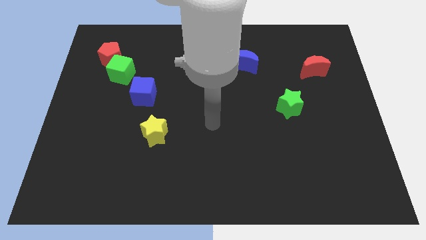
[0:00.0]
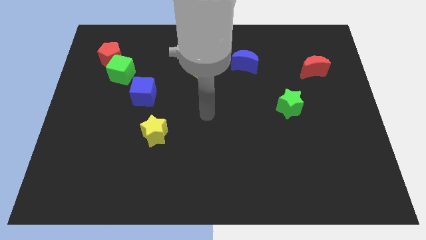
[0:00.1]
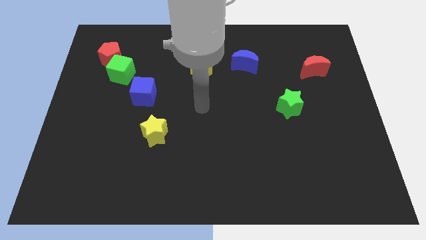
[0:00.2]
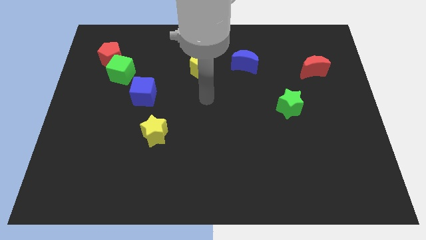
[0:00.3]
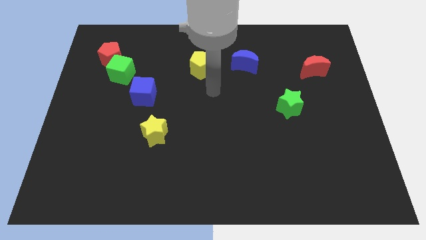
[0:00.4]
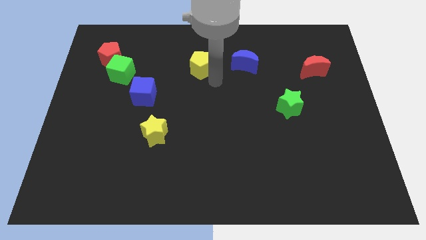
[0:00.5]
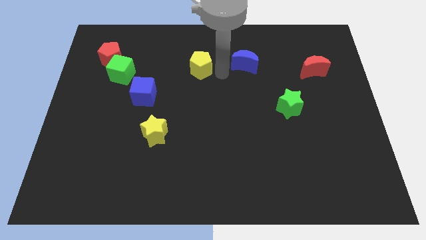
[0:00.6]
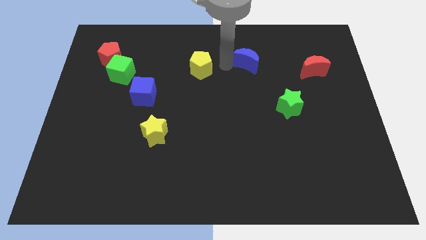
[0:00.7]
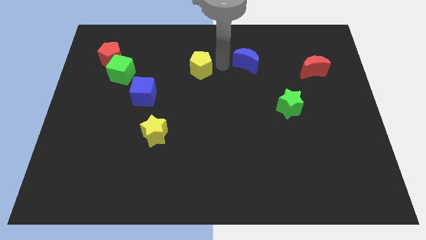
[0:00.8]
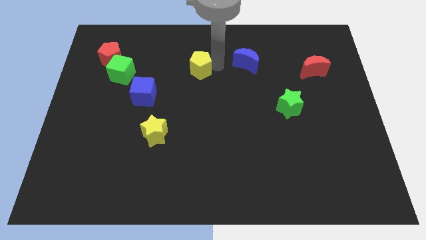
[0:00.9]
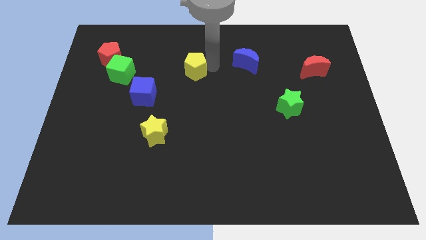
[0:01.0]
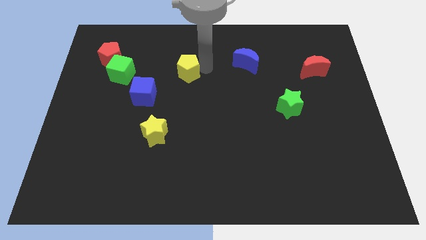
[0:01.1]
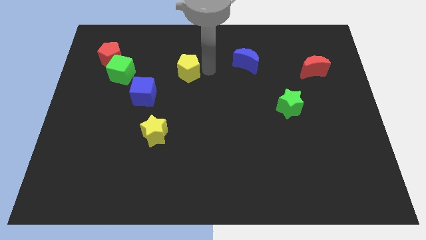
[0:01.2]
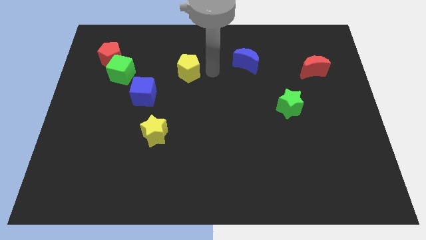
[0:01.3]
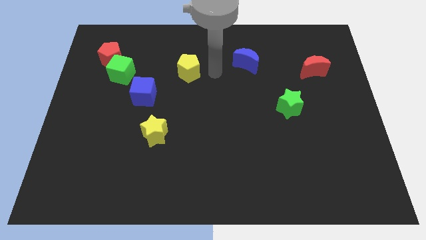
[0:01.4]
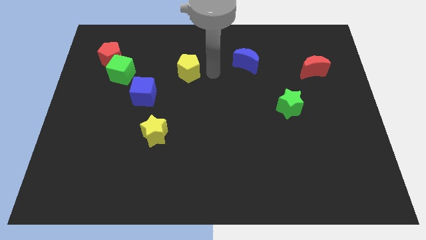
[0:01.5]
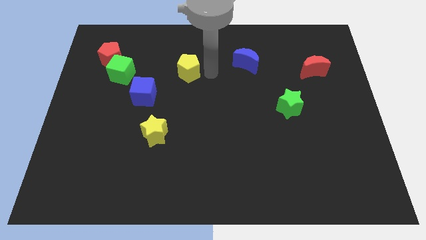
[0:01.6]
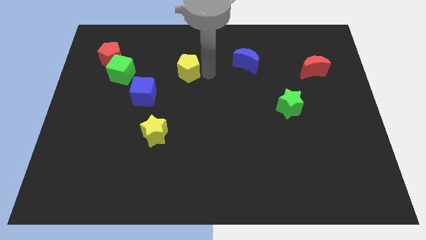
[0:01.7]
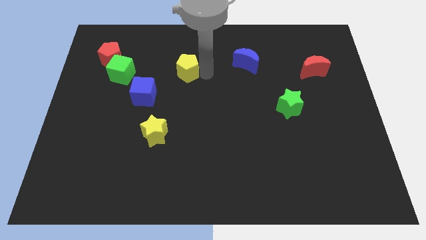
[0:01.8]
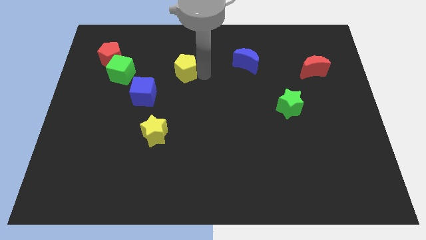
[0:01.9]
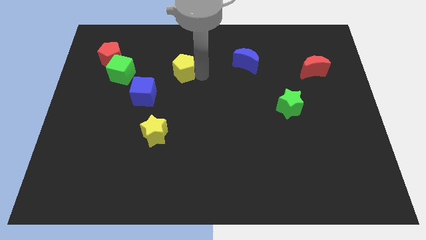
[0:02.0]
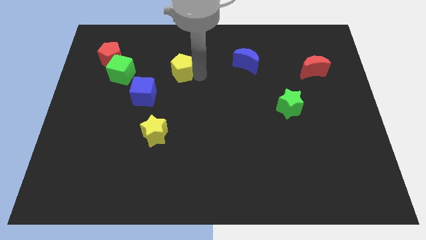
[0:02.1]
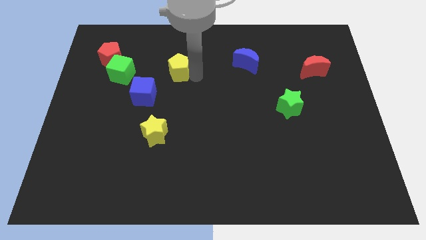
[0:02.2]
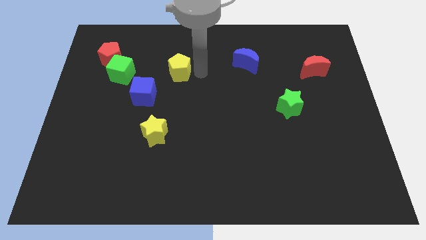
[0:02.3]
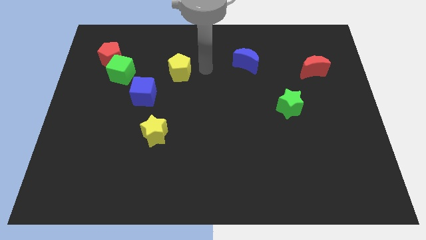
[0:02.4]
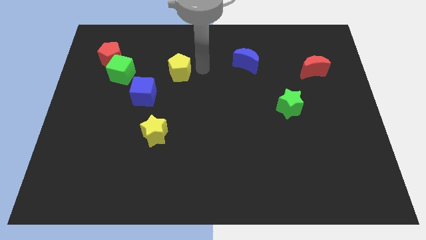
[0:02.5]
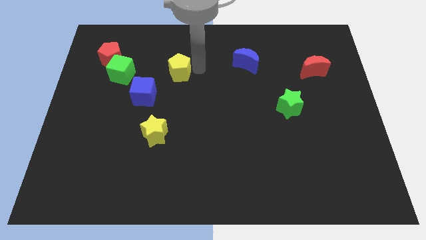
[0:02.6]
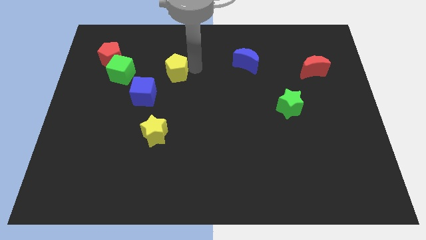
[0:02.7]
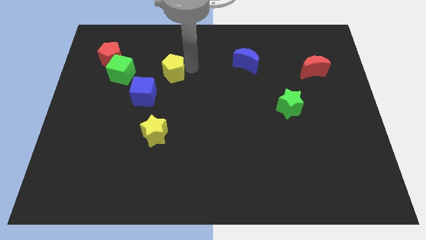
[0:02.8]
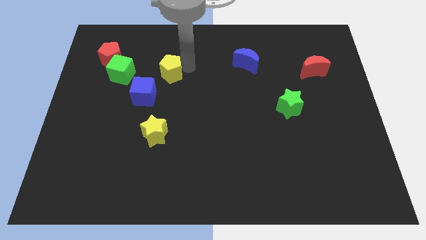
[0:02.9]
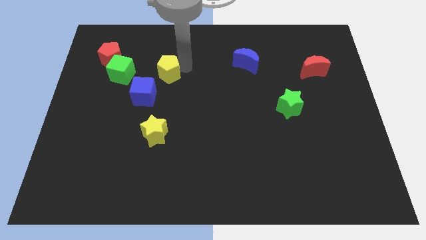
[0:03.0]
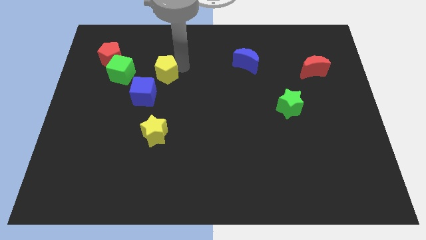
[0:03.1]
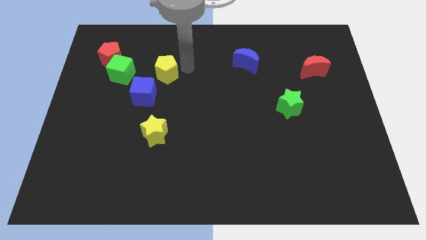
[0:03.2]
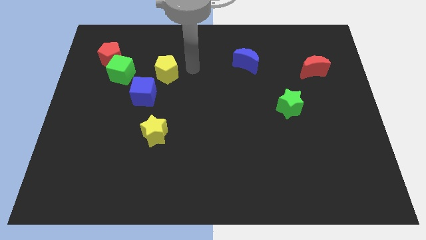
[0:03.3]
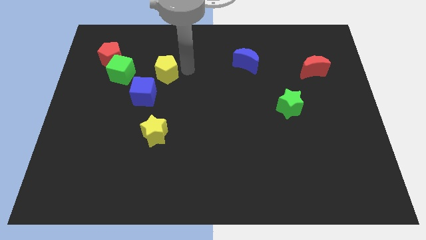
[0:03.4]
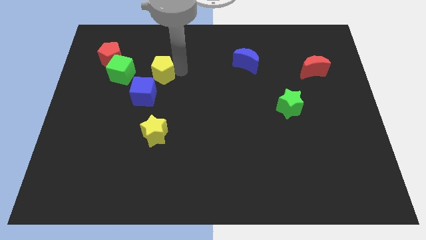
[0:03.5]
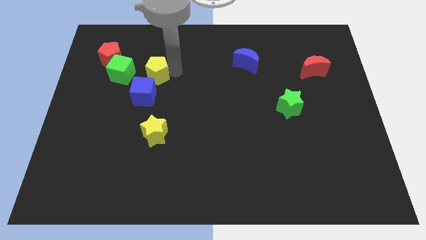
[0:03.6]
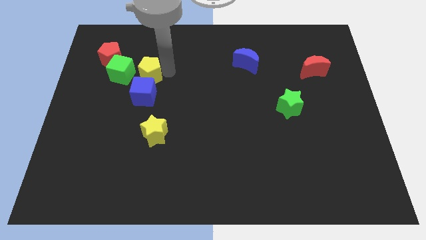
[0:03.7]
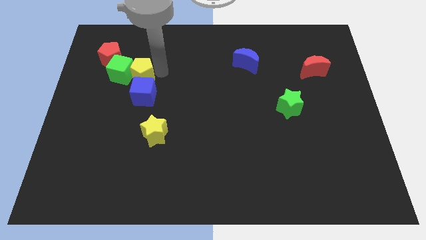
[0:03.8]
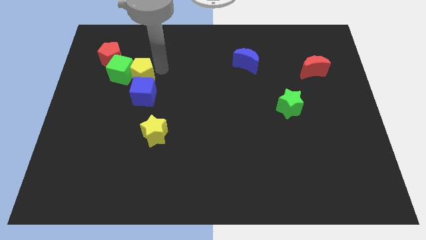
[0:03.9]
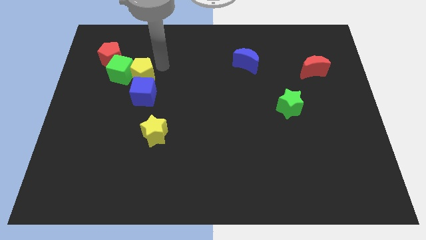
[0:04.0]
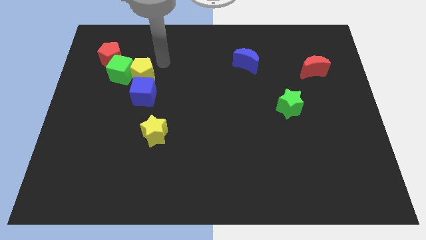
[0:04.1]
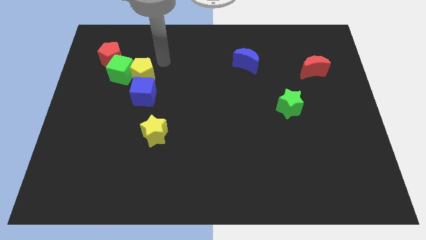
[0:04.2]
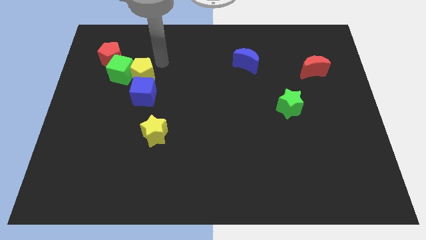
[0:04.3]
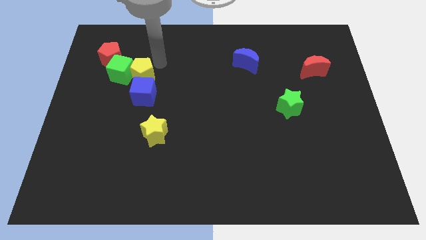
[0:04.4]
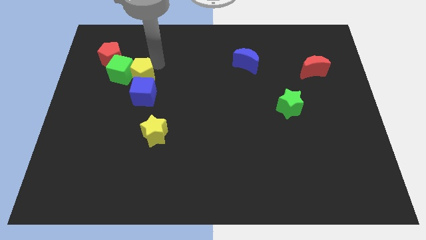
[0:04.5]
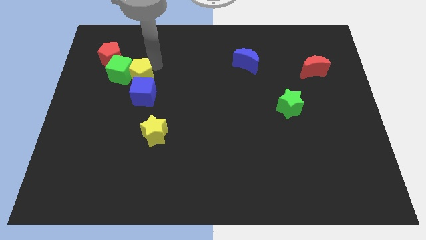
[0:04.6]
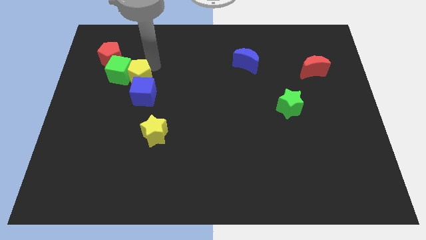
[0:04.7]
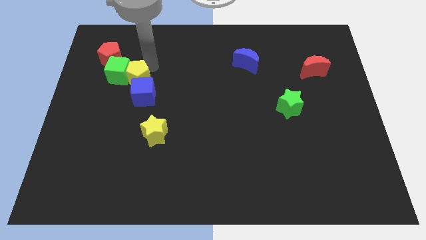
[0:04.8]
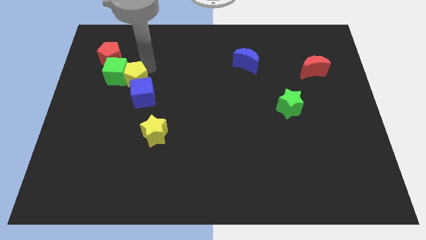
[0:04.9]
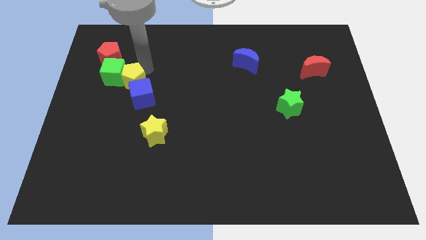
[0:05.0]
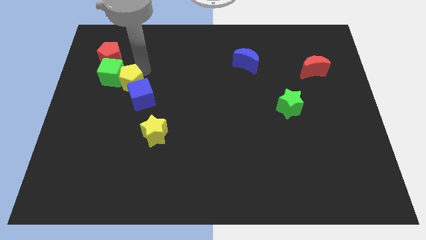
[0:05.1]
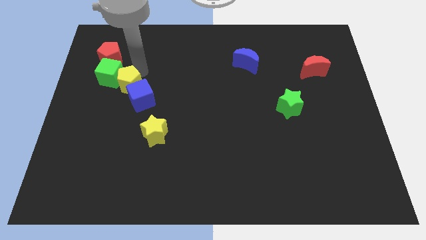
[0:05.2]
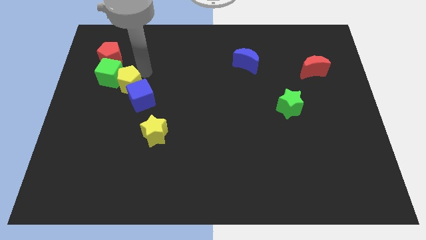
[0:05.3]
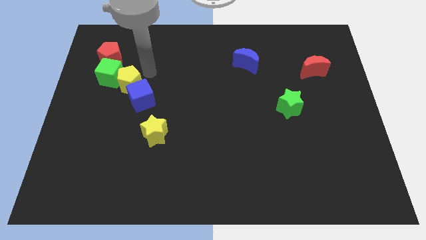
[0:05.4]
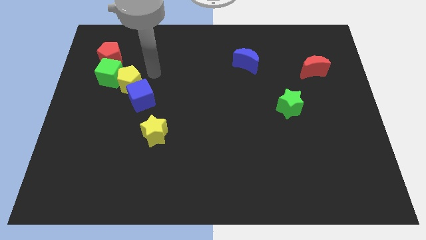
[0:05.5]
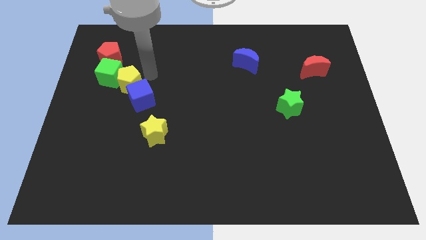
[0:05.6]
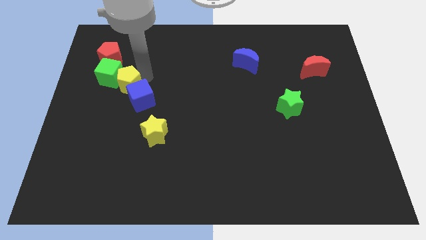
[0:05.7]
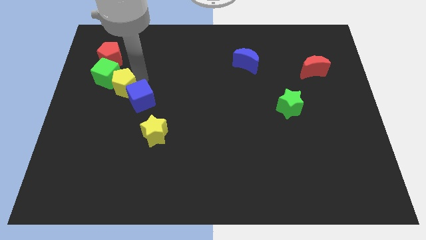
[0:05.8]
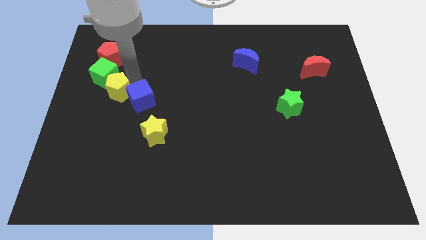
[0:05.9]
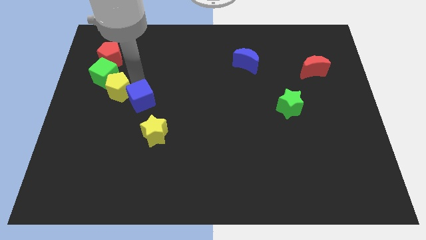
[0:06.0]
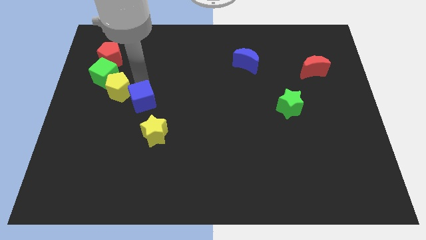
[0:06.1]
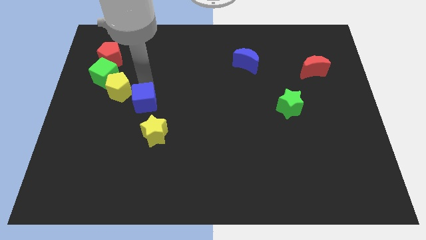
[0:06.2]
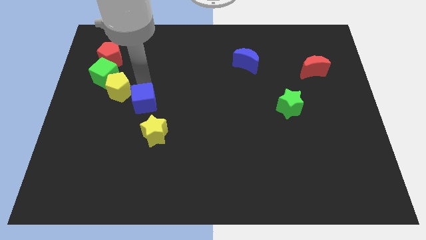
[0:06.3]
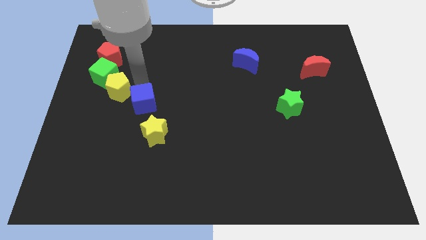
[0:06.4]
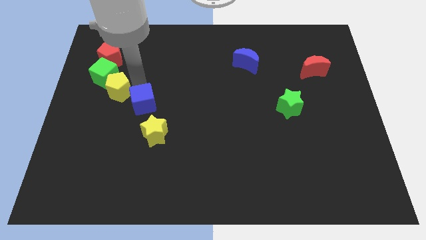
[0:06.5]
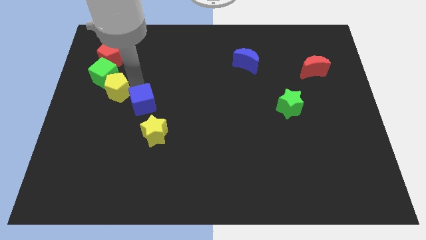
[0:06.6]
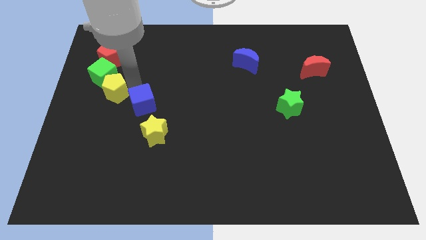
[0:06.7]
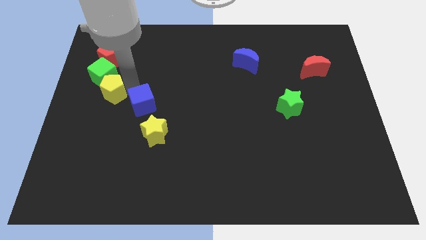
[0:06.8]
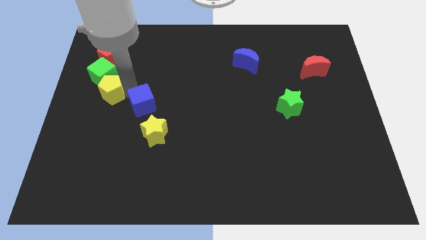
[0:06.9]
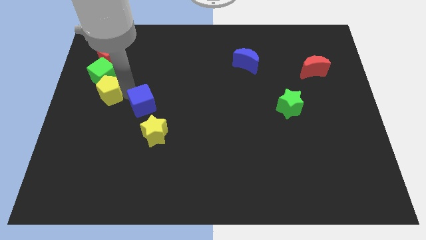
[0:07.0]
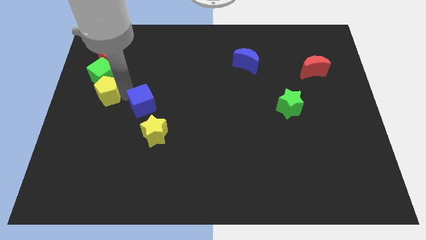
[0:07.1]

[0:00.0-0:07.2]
slide the yellow pentagon to the left side
